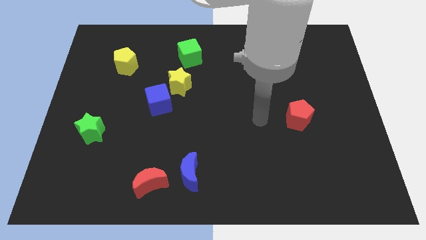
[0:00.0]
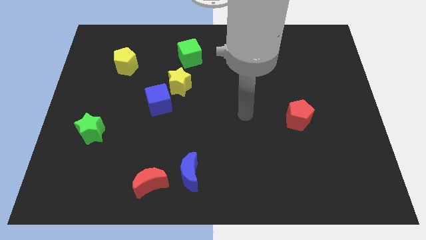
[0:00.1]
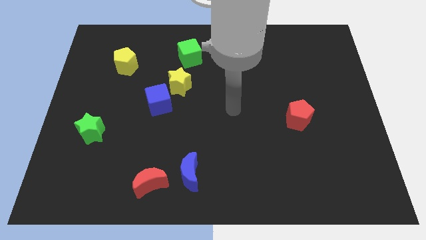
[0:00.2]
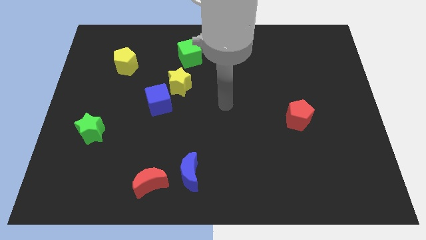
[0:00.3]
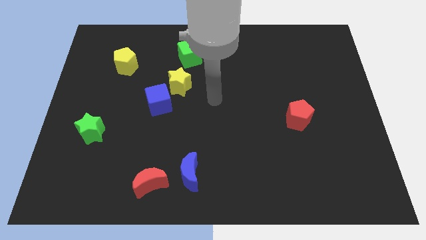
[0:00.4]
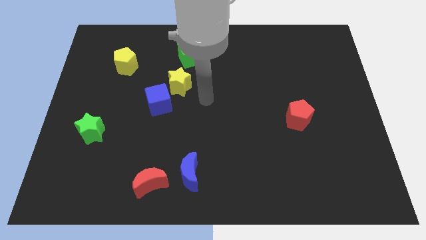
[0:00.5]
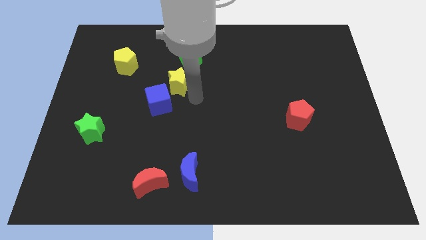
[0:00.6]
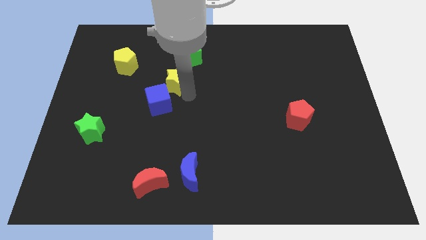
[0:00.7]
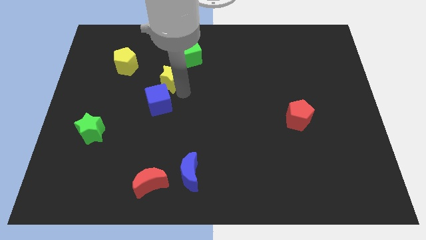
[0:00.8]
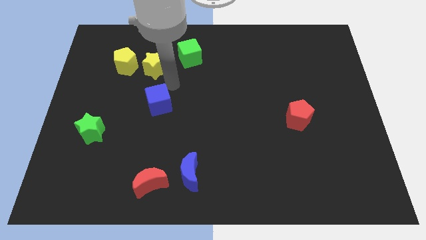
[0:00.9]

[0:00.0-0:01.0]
move the blue cube away from the yellow star

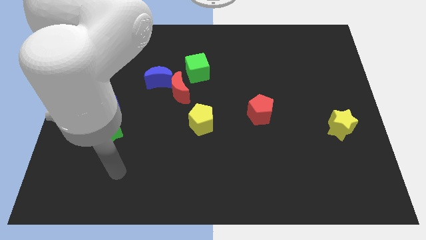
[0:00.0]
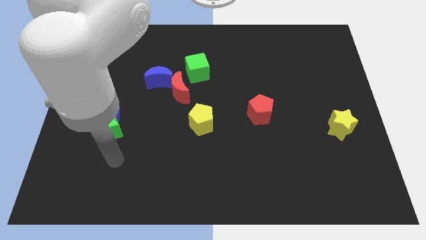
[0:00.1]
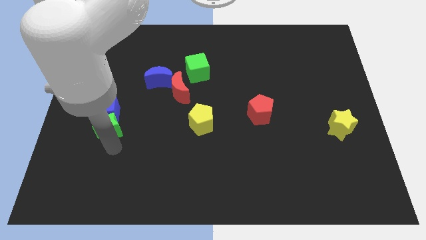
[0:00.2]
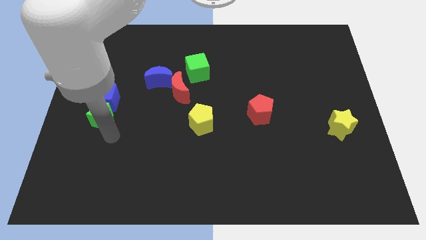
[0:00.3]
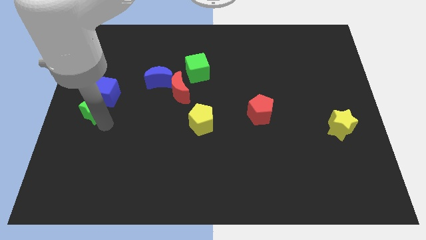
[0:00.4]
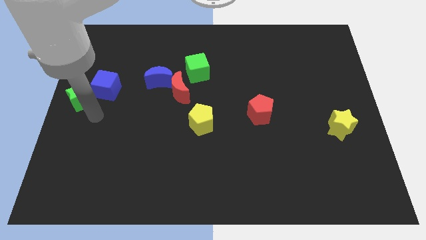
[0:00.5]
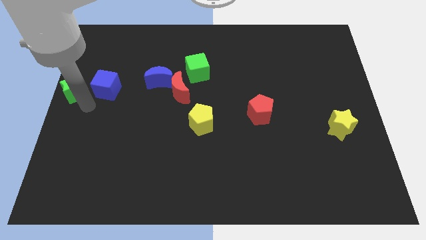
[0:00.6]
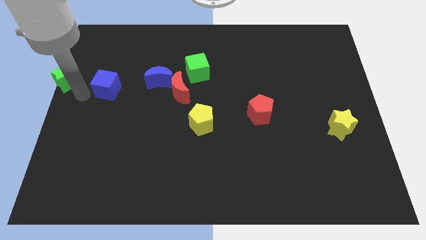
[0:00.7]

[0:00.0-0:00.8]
pull the blue cube apart from the green star

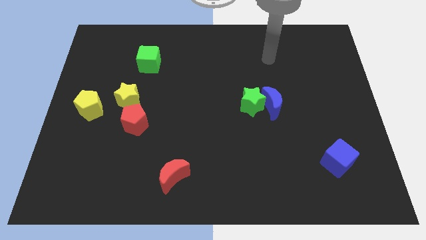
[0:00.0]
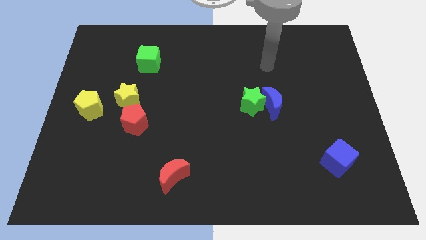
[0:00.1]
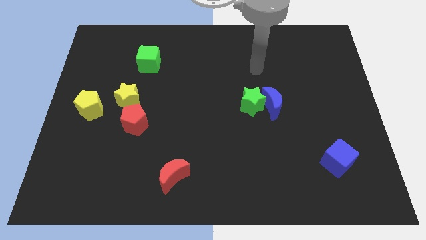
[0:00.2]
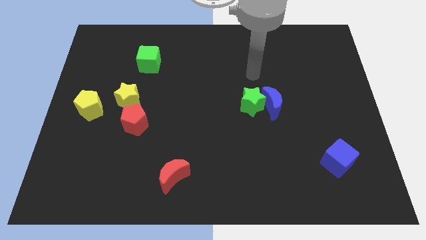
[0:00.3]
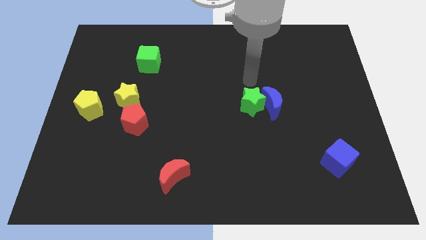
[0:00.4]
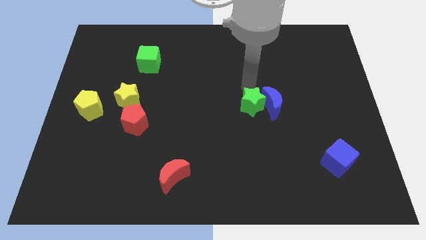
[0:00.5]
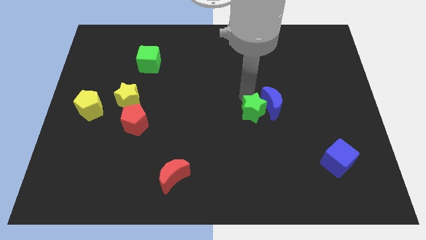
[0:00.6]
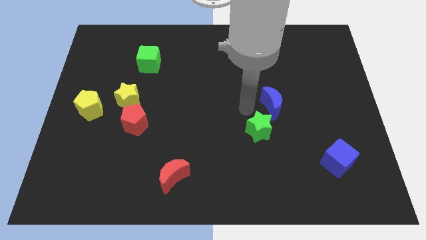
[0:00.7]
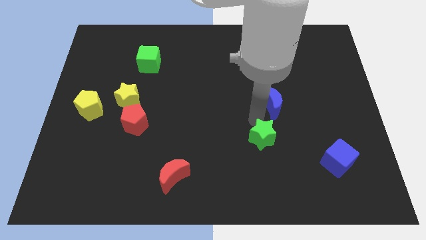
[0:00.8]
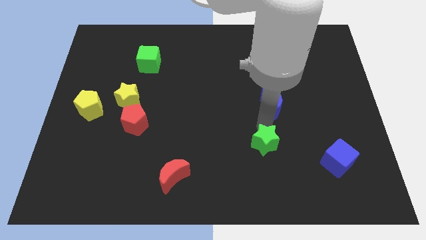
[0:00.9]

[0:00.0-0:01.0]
pull the blue moon apart from the green star

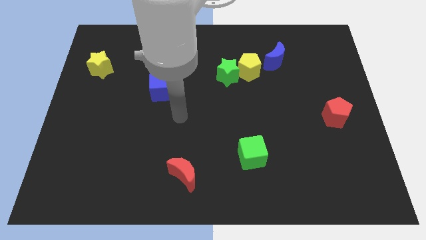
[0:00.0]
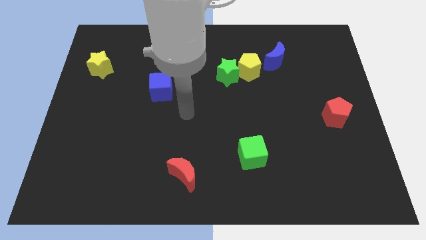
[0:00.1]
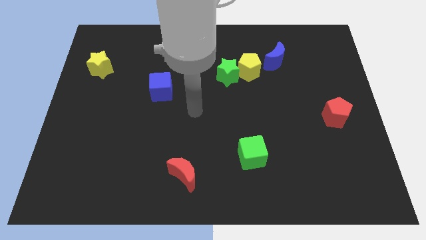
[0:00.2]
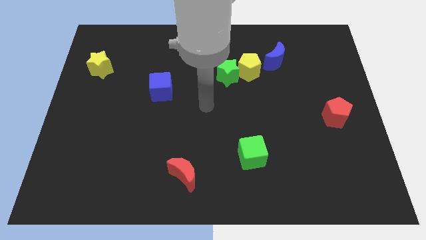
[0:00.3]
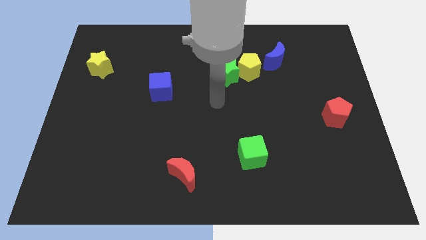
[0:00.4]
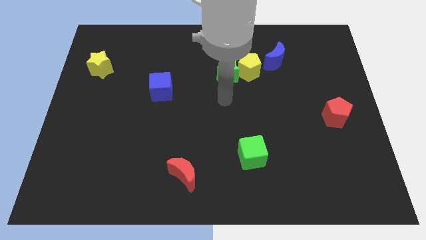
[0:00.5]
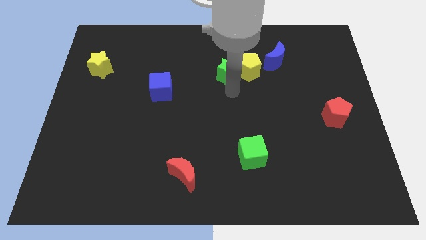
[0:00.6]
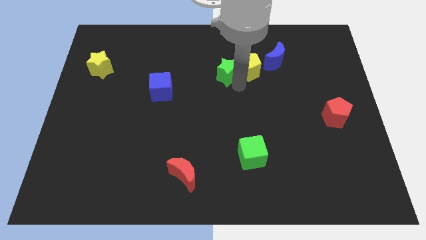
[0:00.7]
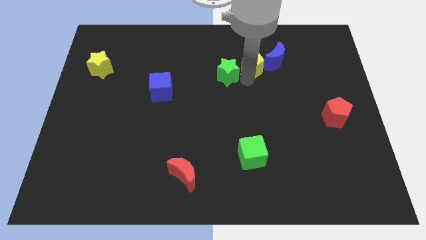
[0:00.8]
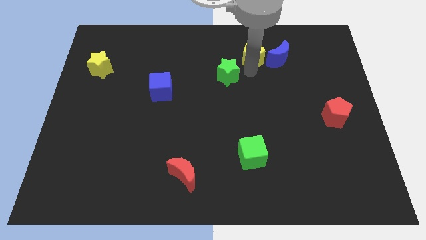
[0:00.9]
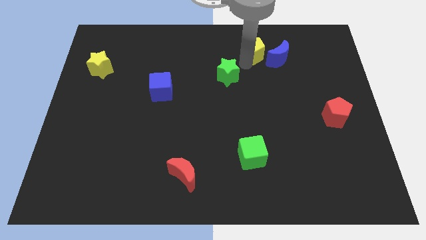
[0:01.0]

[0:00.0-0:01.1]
separate the green star from the yellow pentagon

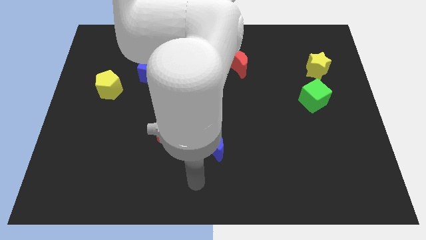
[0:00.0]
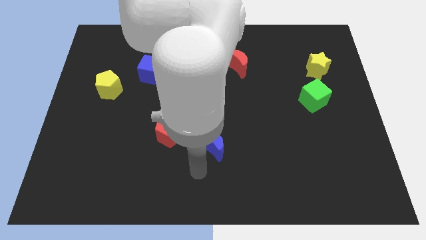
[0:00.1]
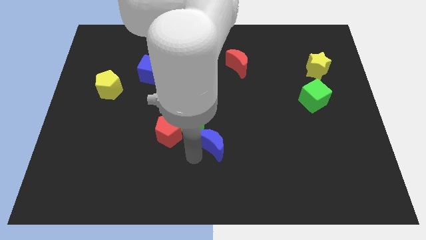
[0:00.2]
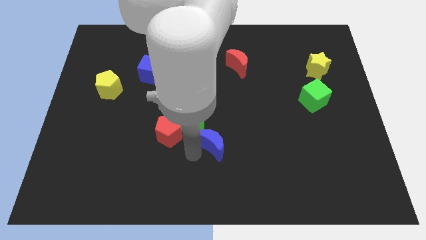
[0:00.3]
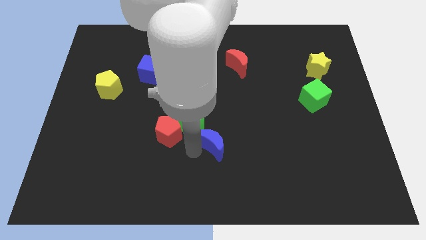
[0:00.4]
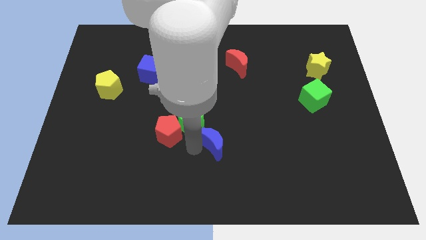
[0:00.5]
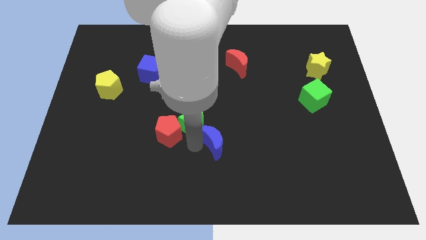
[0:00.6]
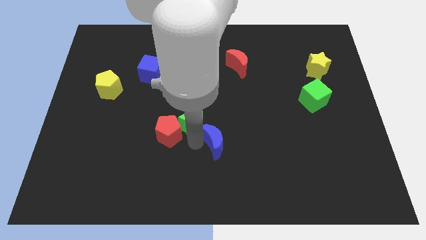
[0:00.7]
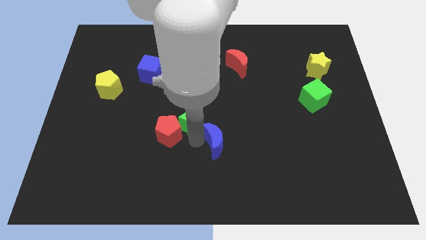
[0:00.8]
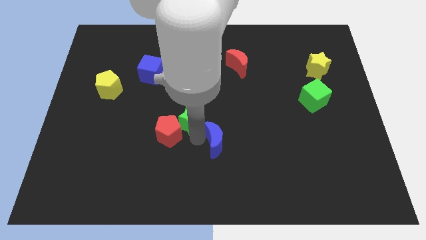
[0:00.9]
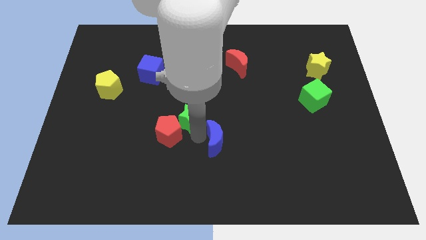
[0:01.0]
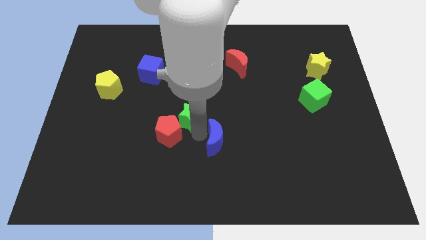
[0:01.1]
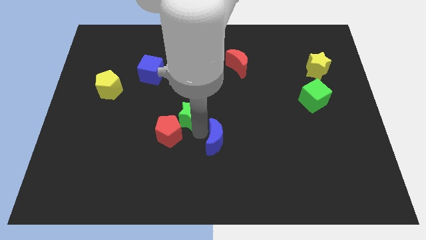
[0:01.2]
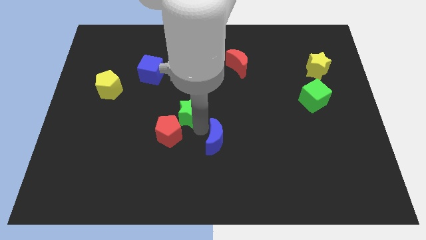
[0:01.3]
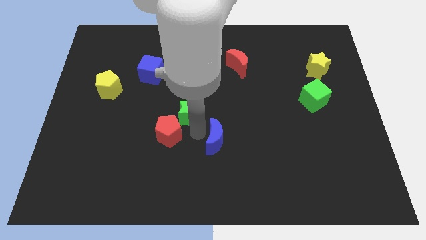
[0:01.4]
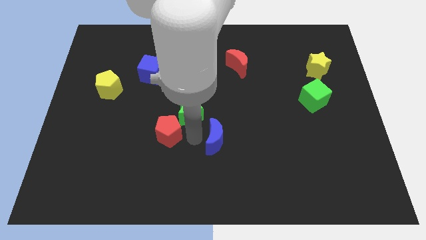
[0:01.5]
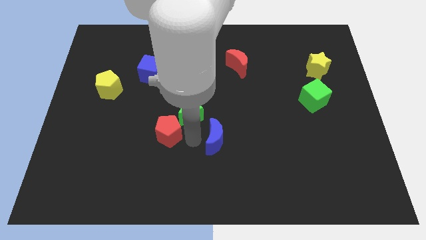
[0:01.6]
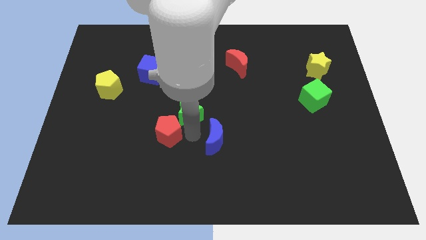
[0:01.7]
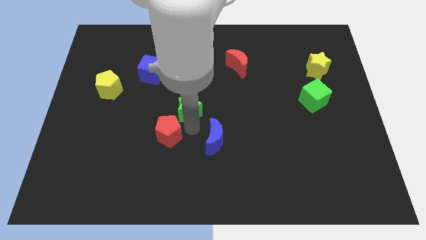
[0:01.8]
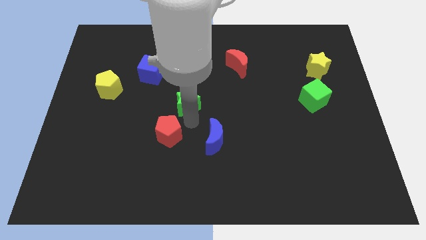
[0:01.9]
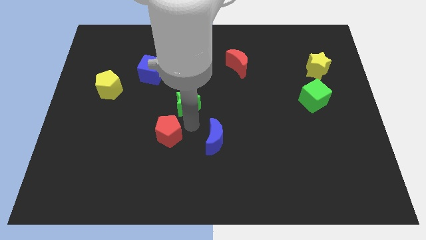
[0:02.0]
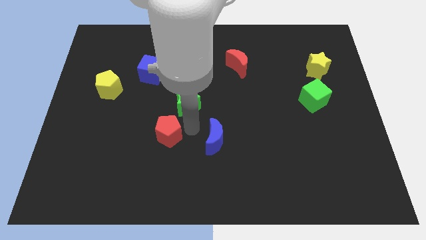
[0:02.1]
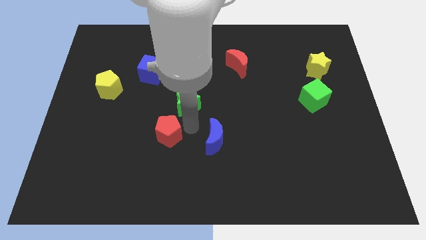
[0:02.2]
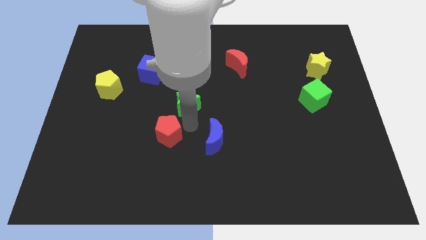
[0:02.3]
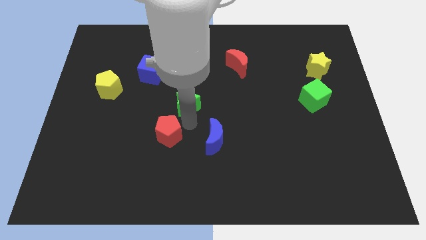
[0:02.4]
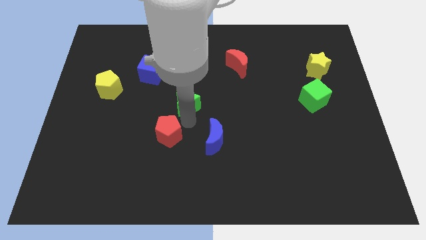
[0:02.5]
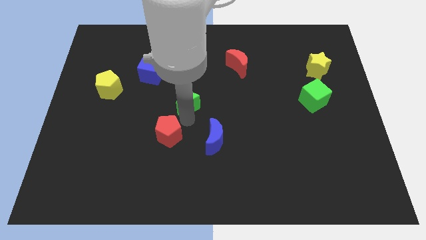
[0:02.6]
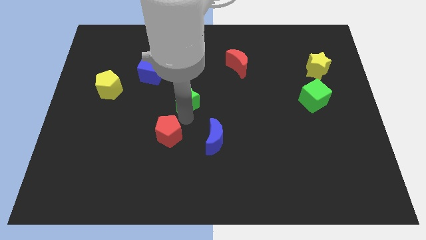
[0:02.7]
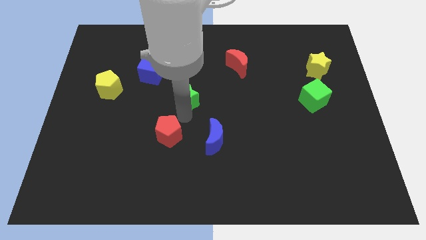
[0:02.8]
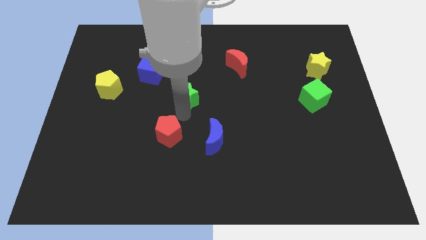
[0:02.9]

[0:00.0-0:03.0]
separate the green star from the red pentagon and blue moon

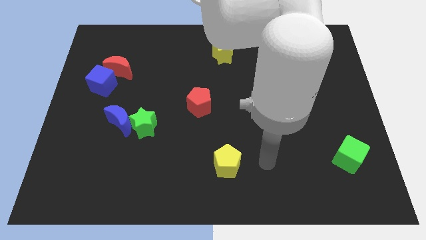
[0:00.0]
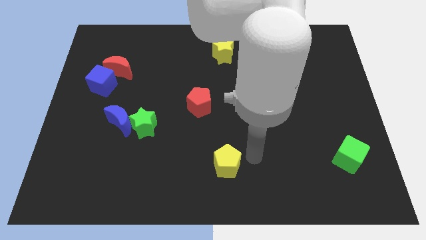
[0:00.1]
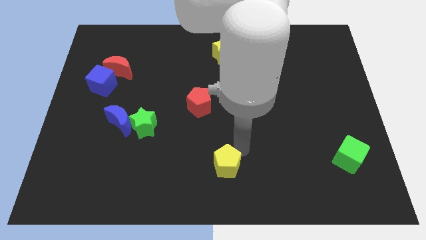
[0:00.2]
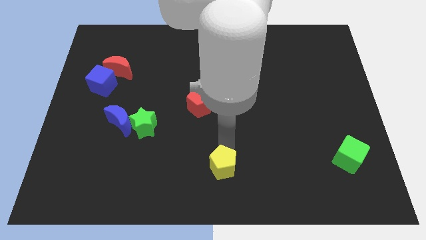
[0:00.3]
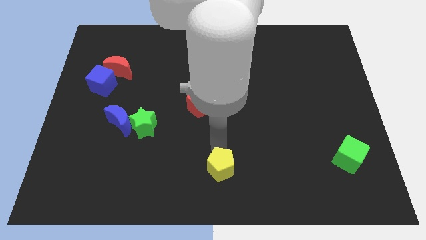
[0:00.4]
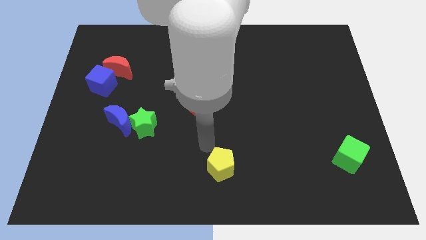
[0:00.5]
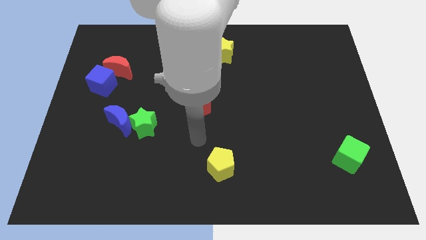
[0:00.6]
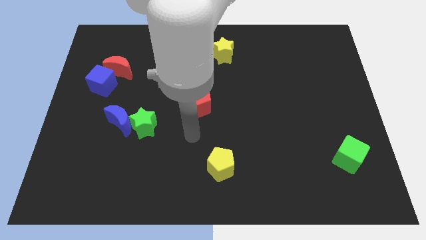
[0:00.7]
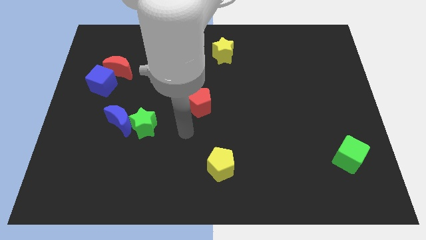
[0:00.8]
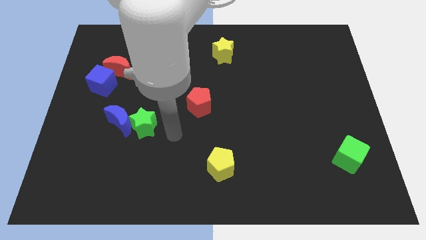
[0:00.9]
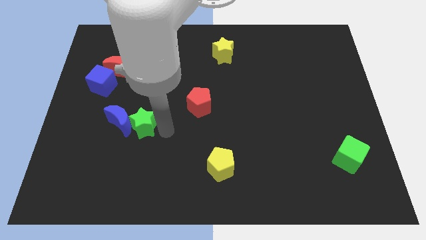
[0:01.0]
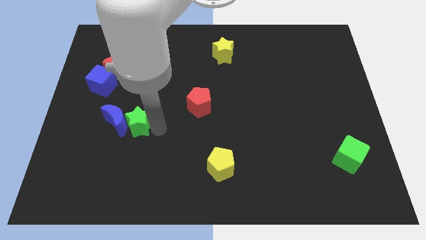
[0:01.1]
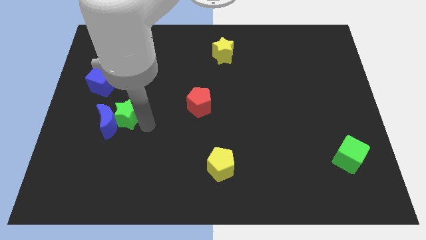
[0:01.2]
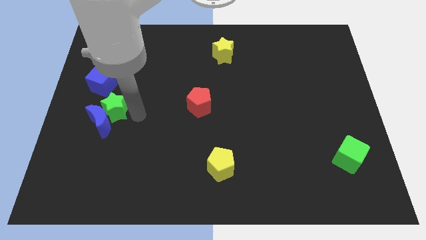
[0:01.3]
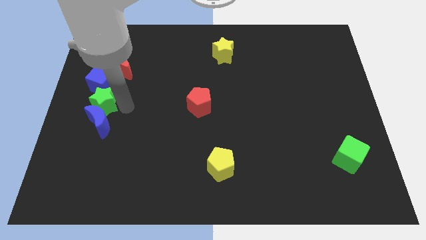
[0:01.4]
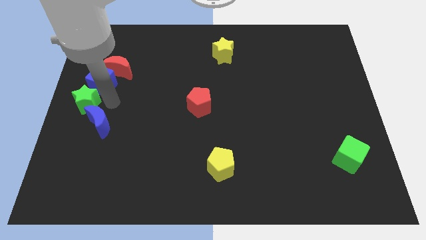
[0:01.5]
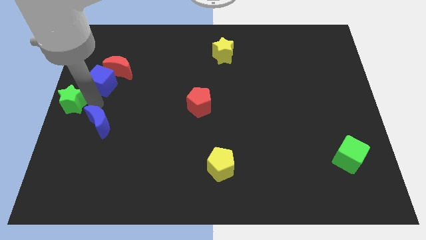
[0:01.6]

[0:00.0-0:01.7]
move the blue moon away from the green star

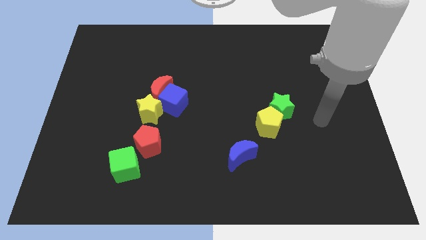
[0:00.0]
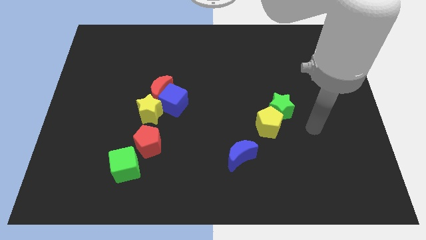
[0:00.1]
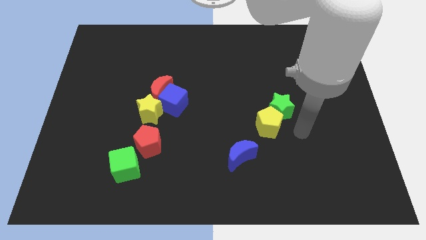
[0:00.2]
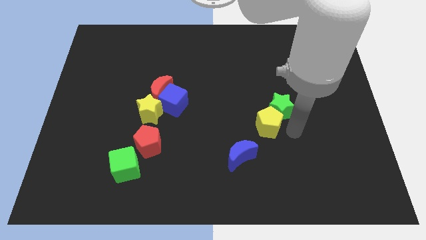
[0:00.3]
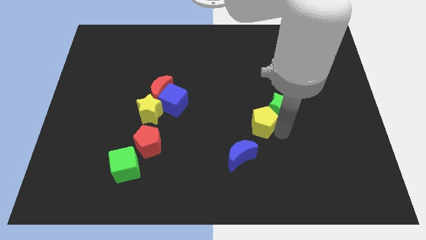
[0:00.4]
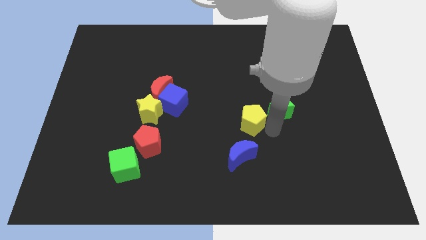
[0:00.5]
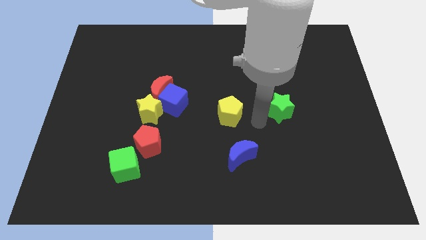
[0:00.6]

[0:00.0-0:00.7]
pull the green star apart from the yellow pentagon
